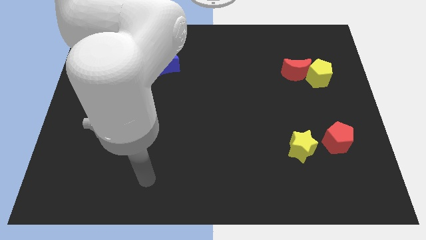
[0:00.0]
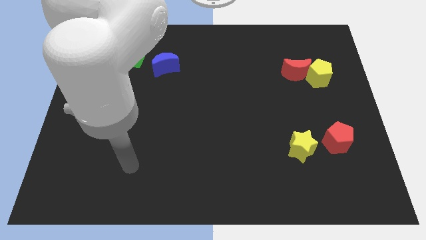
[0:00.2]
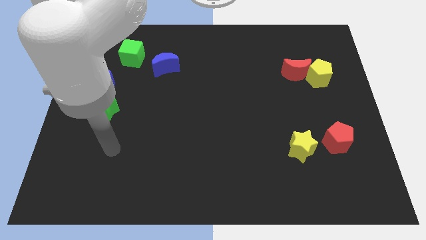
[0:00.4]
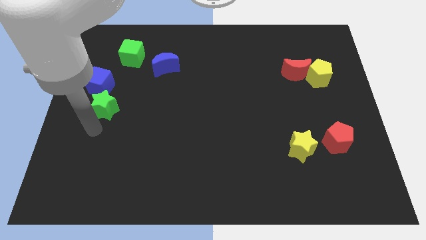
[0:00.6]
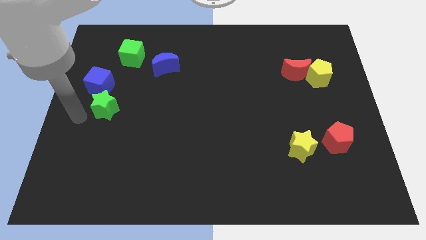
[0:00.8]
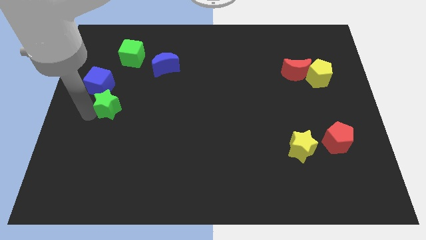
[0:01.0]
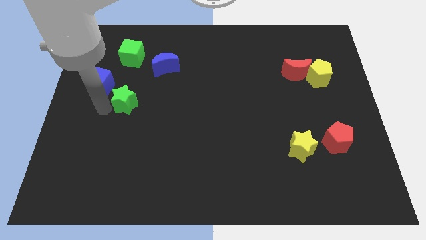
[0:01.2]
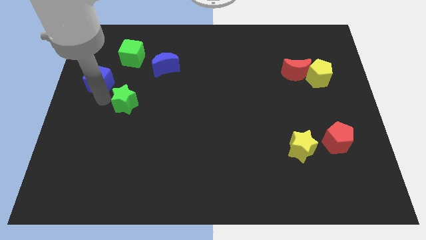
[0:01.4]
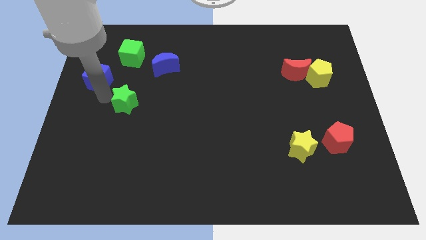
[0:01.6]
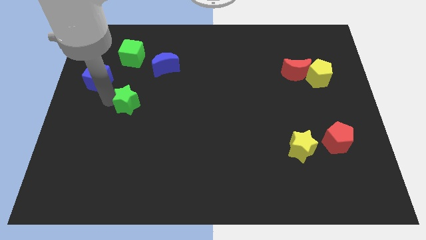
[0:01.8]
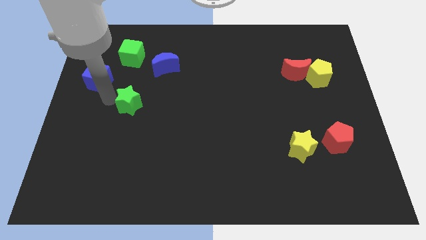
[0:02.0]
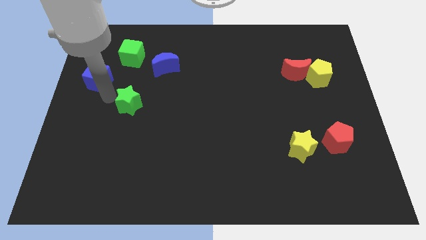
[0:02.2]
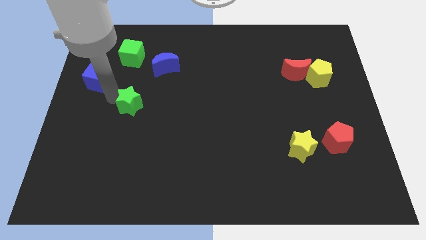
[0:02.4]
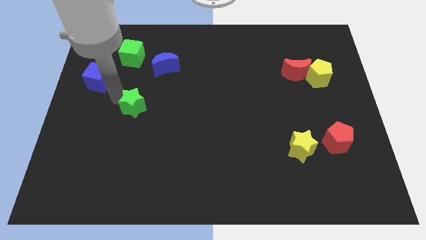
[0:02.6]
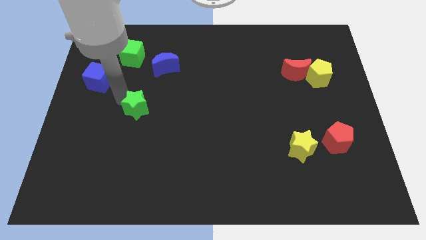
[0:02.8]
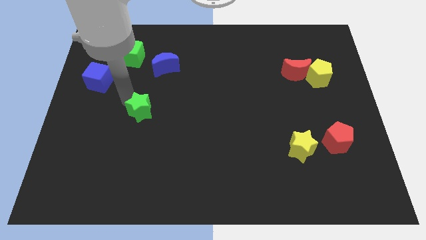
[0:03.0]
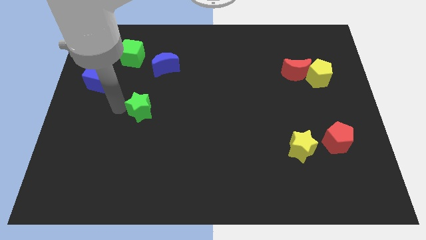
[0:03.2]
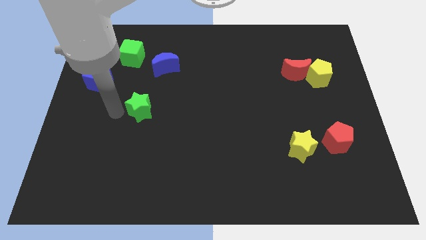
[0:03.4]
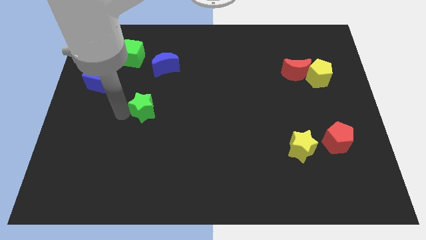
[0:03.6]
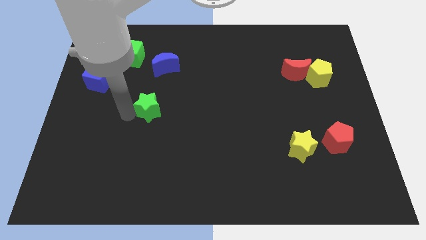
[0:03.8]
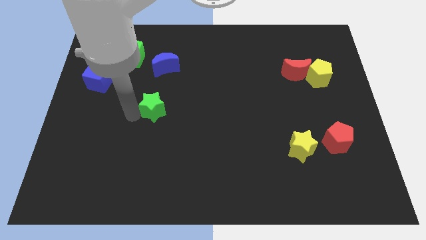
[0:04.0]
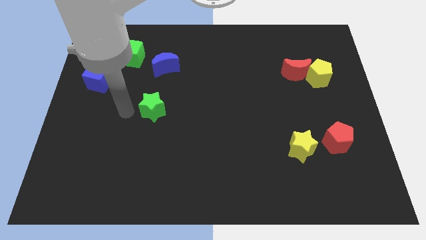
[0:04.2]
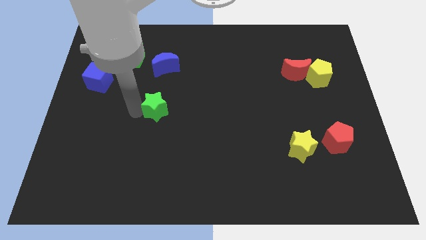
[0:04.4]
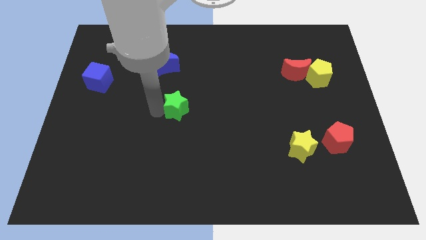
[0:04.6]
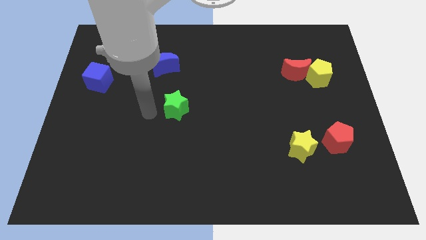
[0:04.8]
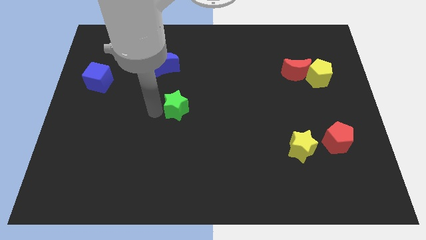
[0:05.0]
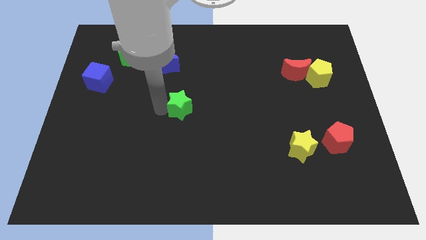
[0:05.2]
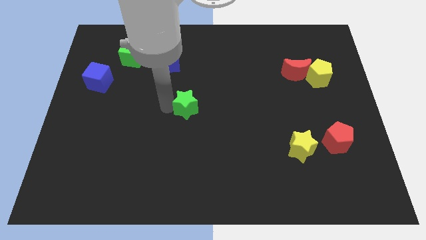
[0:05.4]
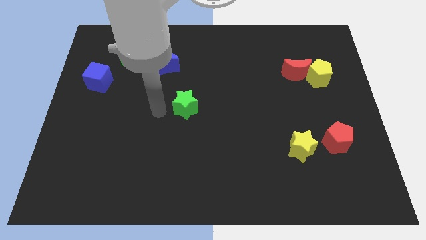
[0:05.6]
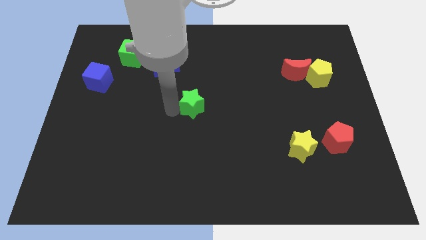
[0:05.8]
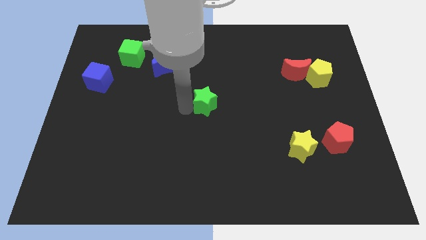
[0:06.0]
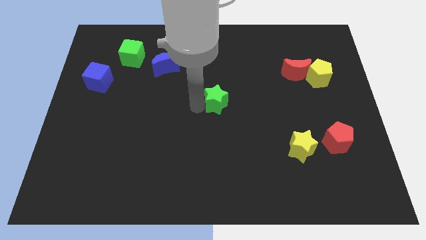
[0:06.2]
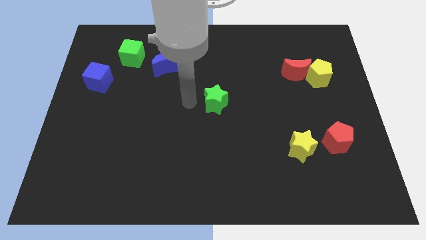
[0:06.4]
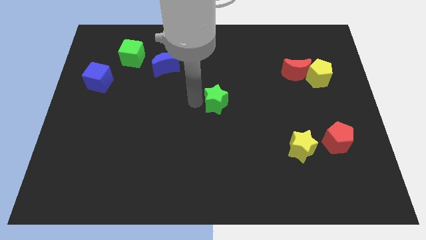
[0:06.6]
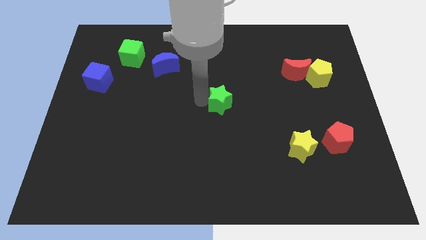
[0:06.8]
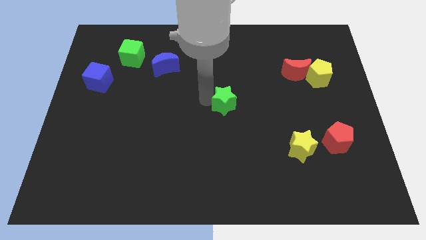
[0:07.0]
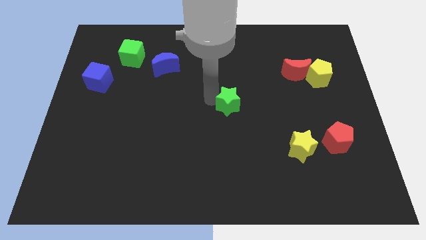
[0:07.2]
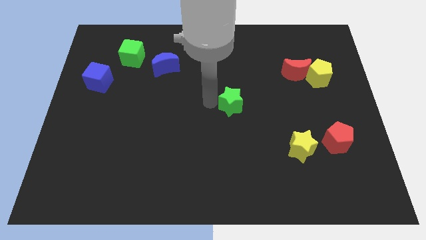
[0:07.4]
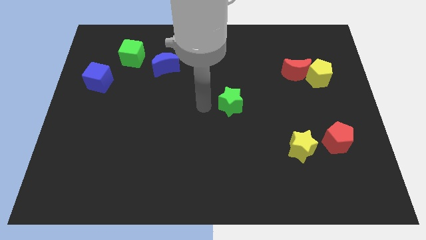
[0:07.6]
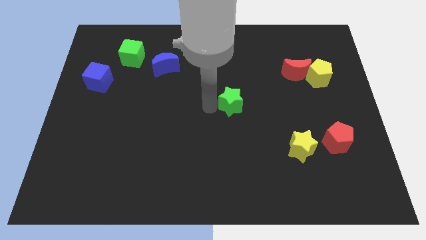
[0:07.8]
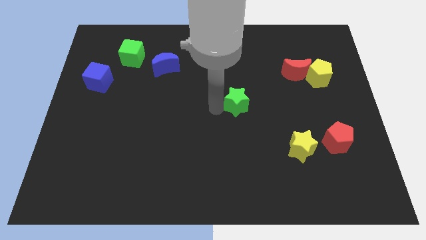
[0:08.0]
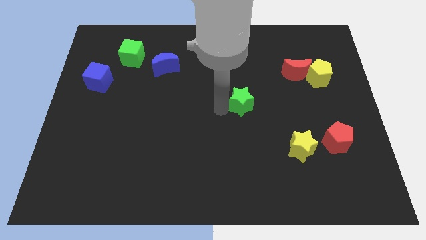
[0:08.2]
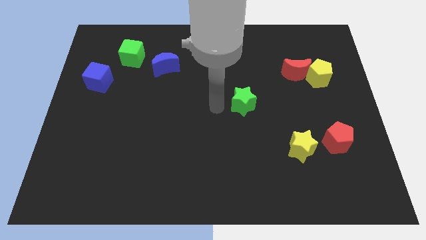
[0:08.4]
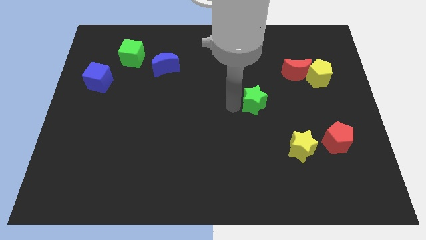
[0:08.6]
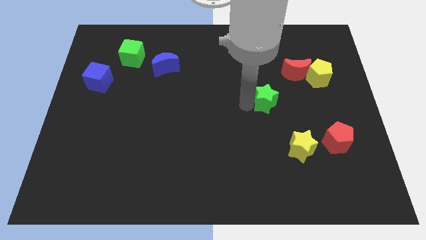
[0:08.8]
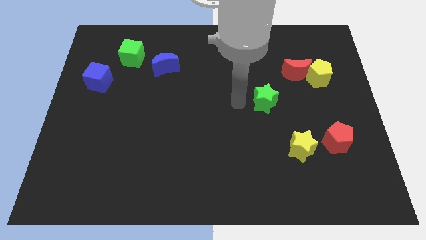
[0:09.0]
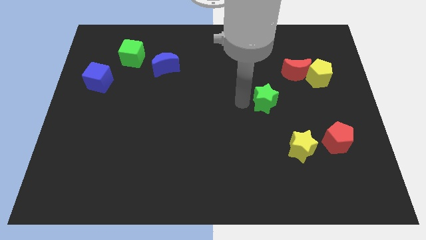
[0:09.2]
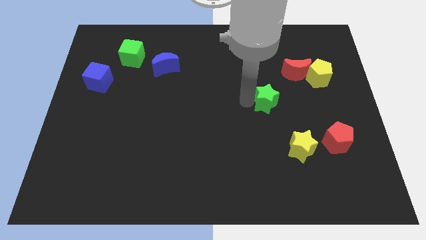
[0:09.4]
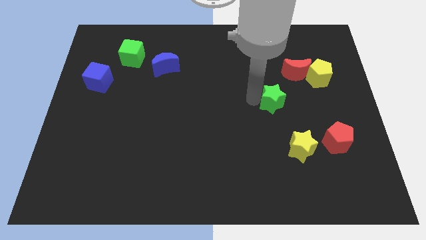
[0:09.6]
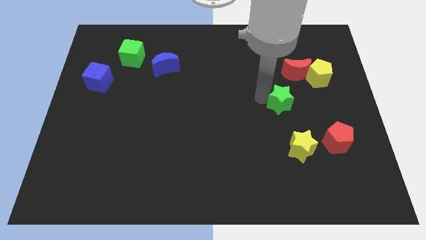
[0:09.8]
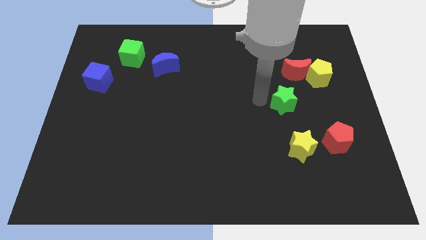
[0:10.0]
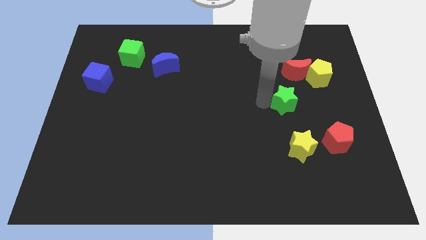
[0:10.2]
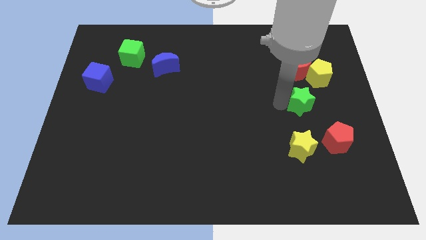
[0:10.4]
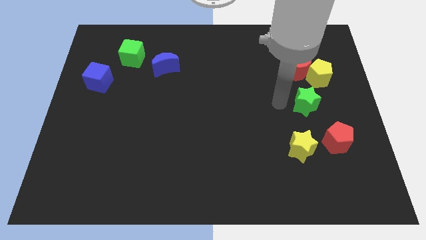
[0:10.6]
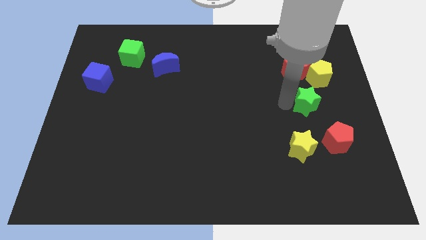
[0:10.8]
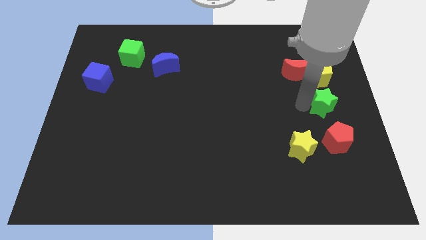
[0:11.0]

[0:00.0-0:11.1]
move the green star to the right side of the board

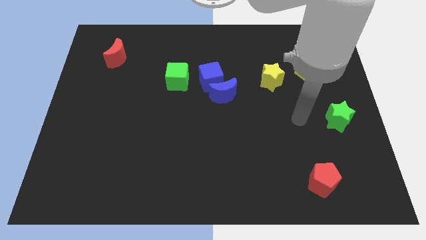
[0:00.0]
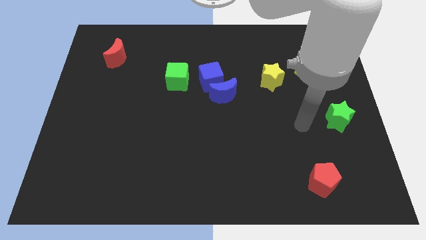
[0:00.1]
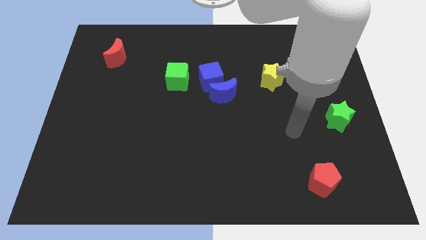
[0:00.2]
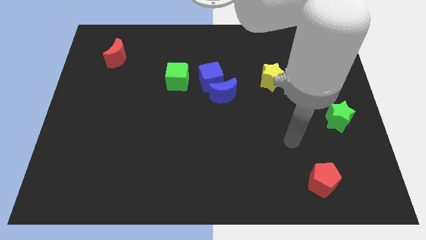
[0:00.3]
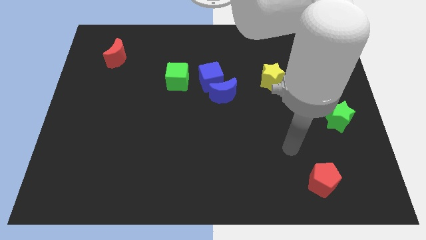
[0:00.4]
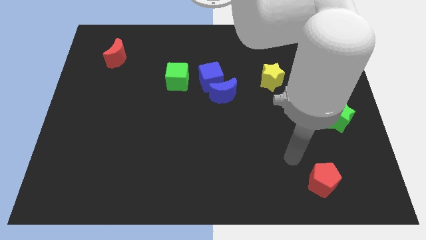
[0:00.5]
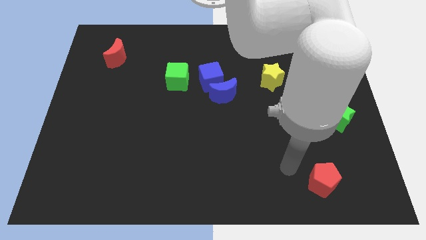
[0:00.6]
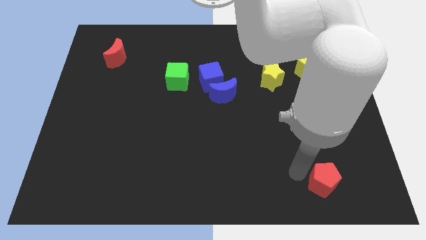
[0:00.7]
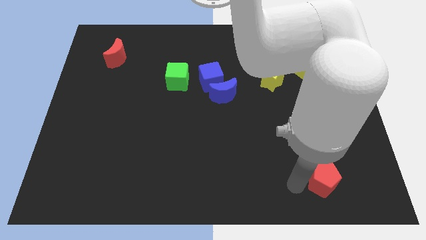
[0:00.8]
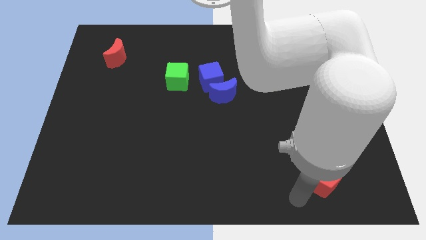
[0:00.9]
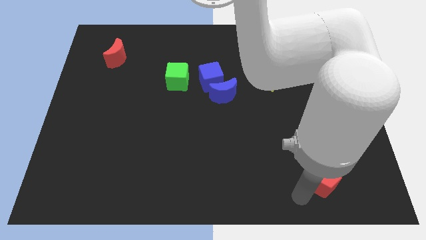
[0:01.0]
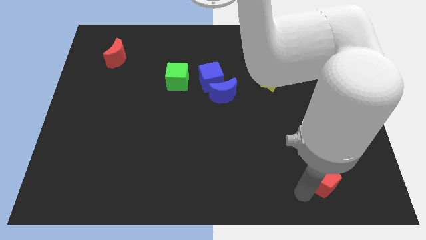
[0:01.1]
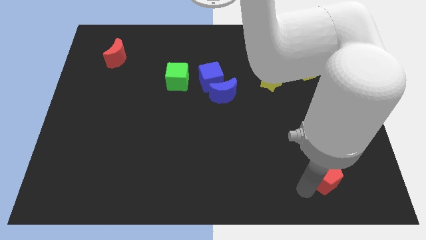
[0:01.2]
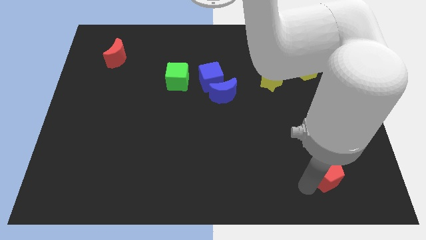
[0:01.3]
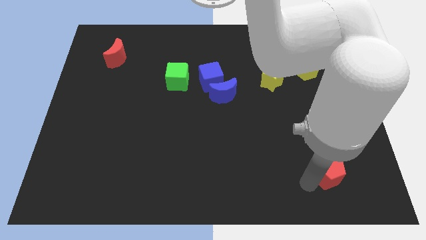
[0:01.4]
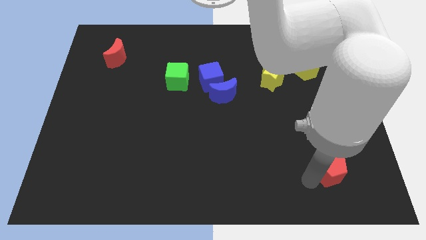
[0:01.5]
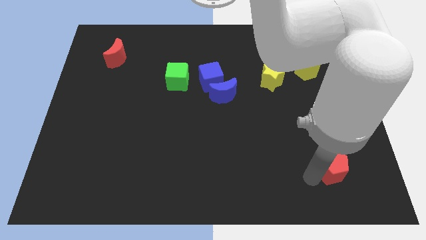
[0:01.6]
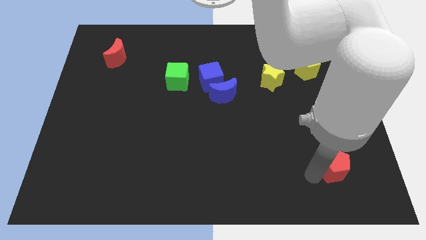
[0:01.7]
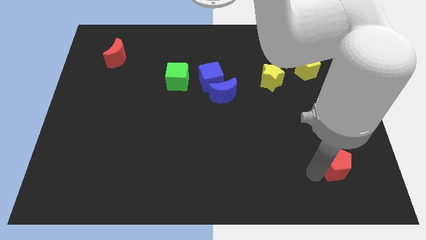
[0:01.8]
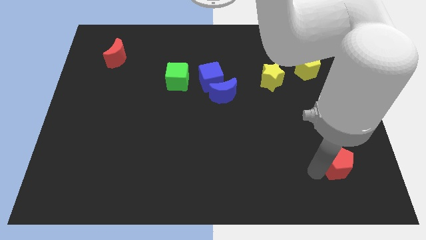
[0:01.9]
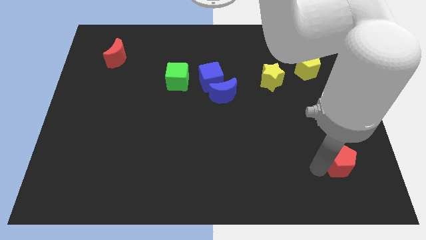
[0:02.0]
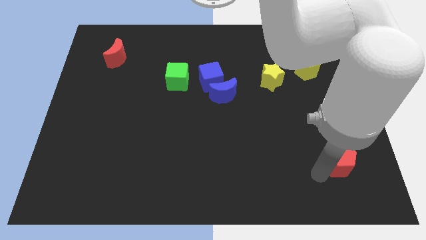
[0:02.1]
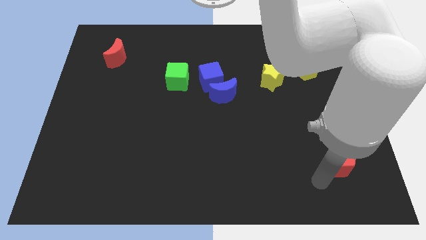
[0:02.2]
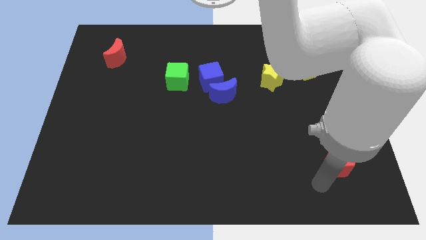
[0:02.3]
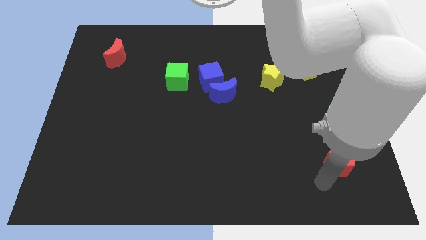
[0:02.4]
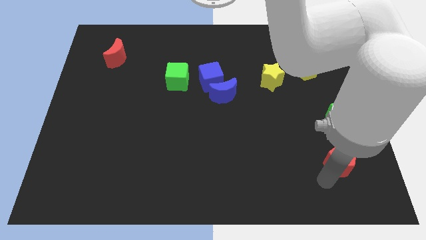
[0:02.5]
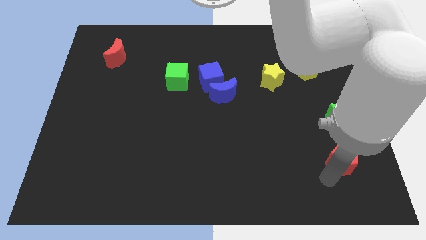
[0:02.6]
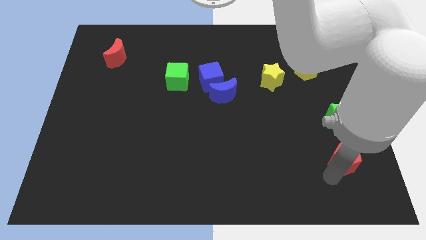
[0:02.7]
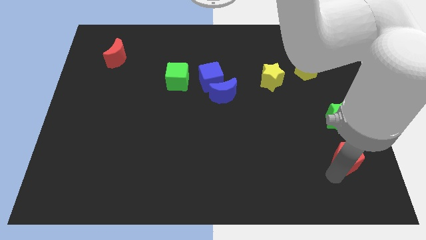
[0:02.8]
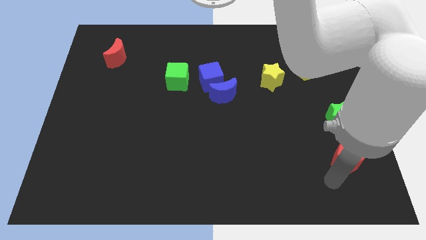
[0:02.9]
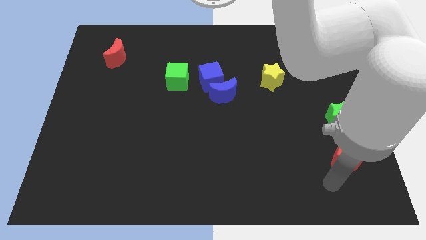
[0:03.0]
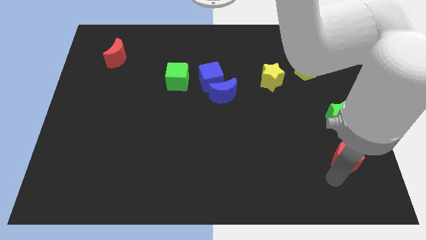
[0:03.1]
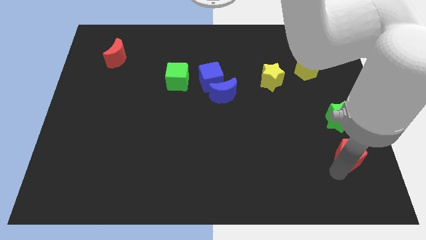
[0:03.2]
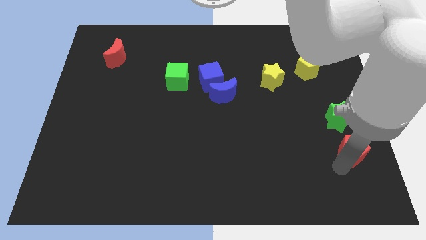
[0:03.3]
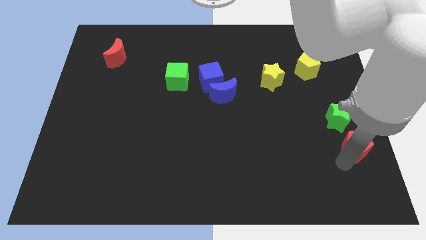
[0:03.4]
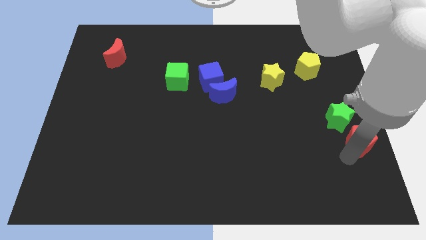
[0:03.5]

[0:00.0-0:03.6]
move the red pentagon to the right side of the board
